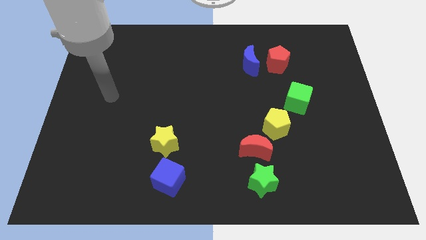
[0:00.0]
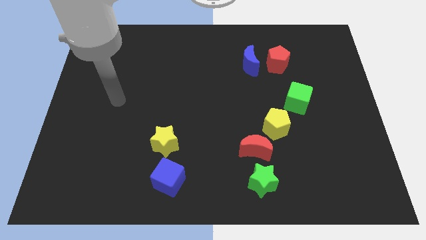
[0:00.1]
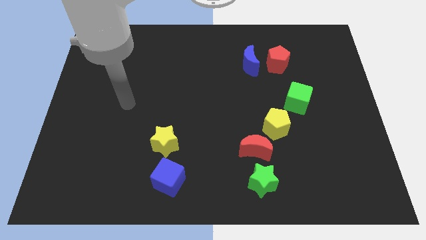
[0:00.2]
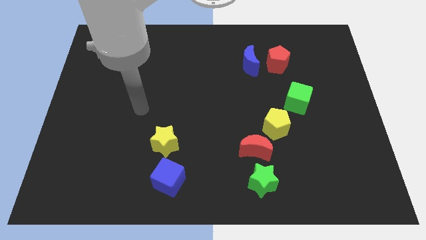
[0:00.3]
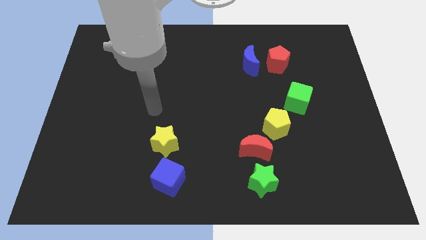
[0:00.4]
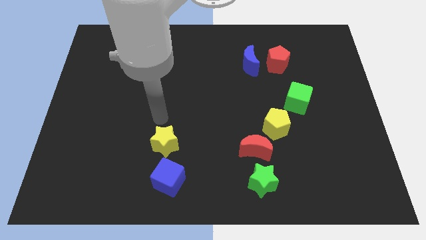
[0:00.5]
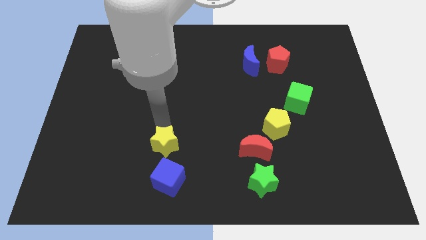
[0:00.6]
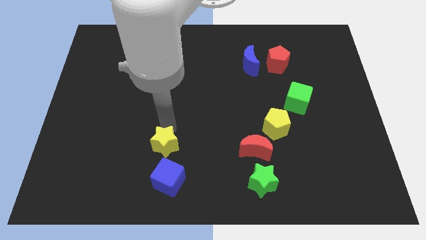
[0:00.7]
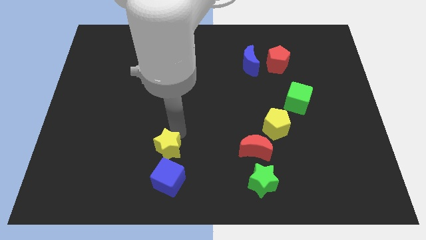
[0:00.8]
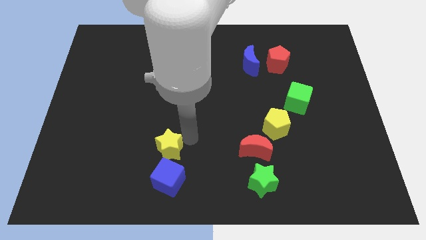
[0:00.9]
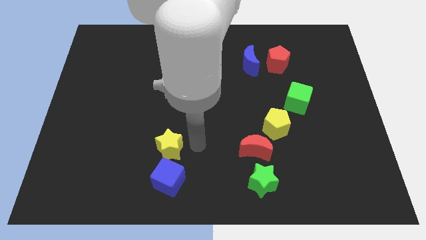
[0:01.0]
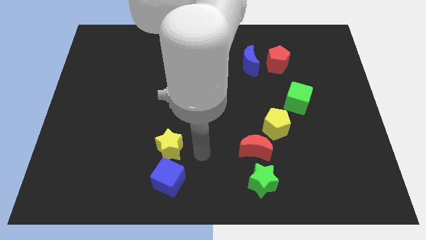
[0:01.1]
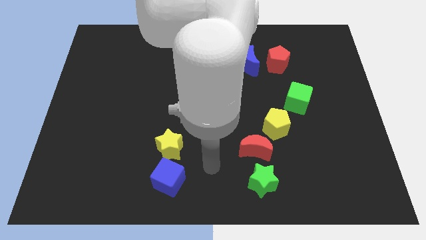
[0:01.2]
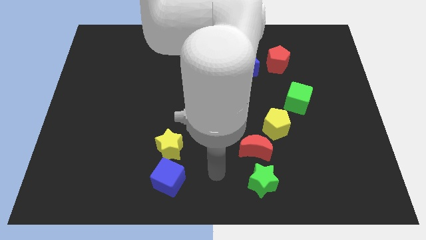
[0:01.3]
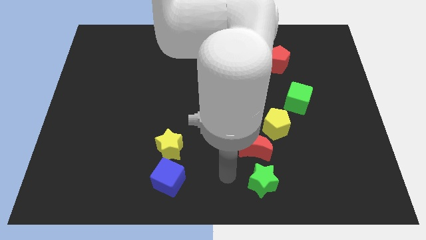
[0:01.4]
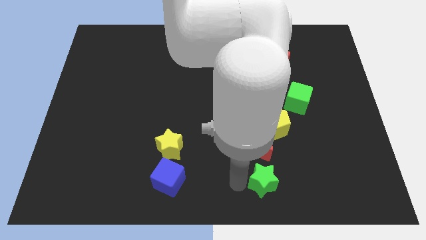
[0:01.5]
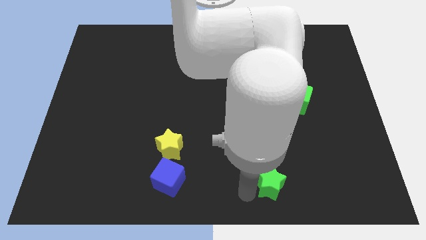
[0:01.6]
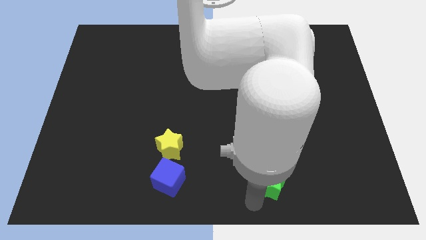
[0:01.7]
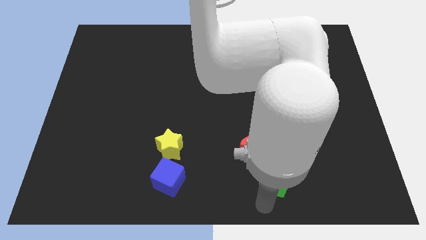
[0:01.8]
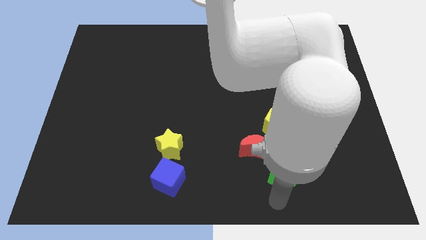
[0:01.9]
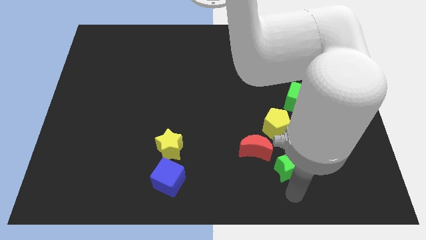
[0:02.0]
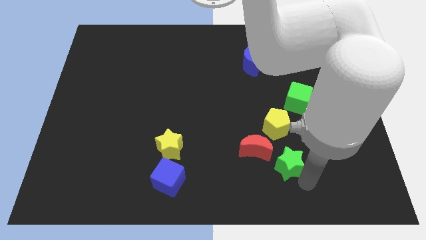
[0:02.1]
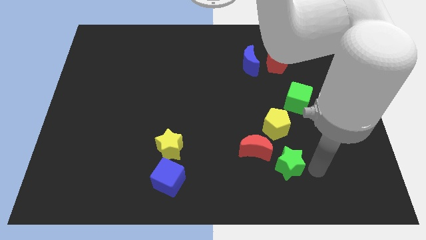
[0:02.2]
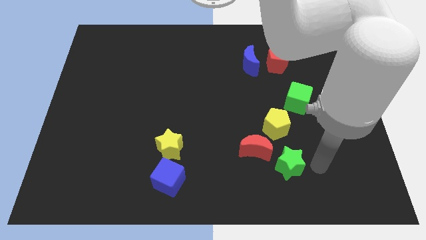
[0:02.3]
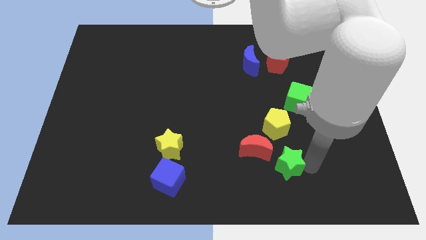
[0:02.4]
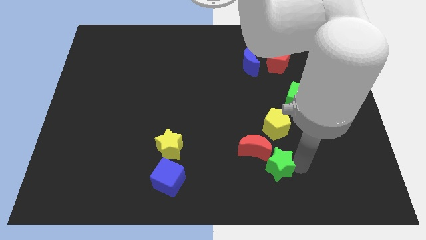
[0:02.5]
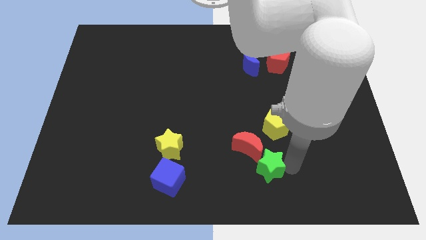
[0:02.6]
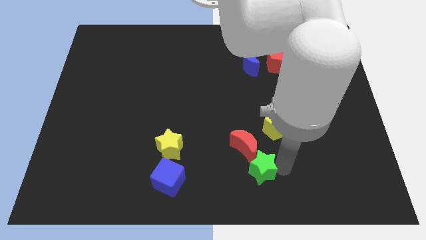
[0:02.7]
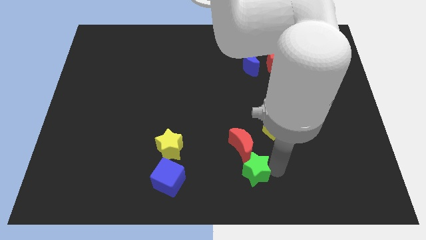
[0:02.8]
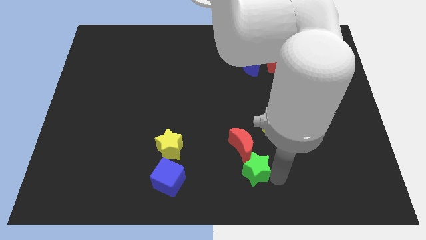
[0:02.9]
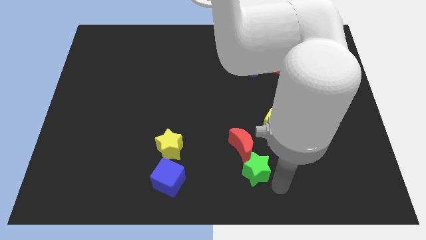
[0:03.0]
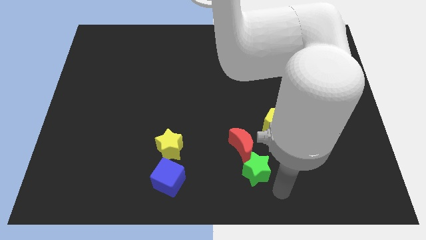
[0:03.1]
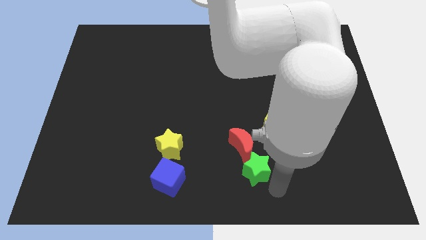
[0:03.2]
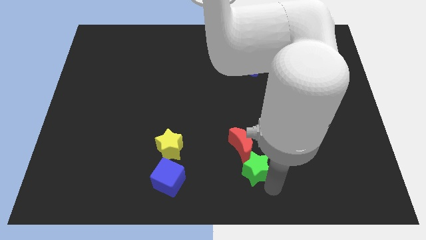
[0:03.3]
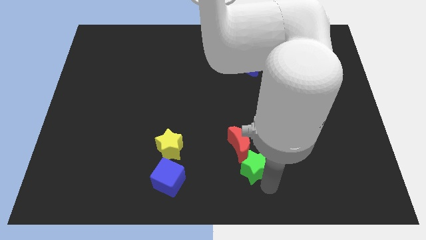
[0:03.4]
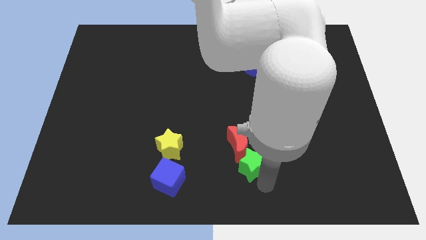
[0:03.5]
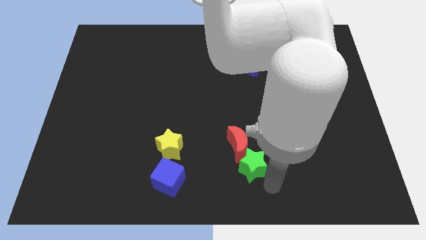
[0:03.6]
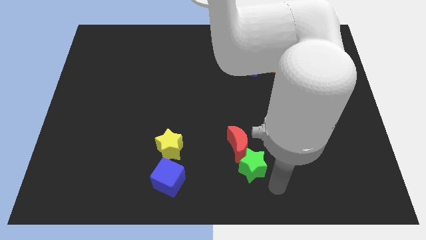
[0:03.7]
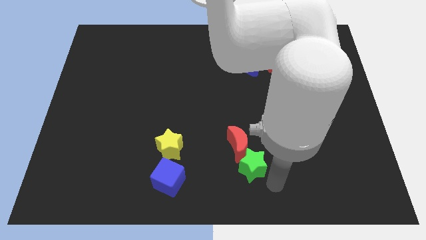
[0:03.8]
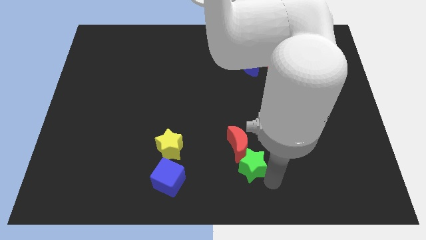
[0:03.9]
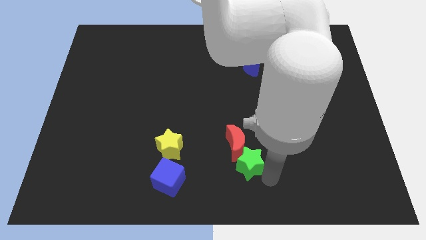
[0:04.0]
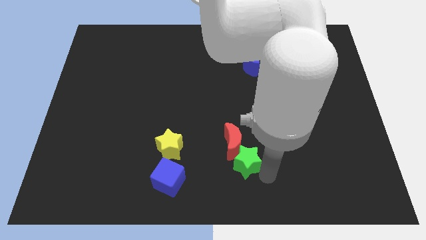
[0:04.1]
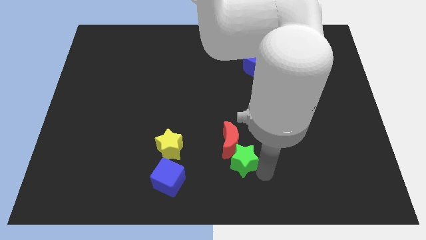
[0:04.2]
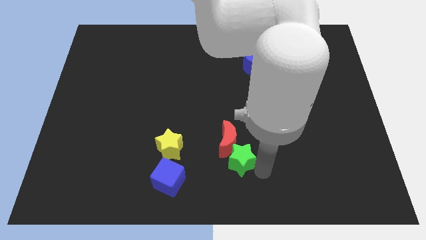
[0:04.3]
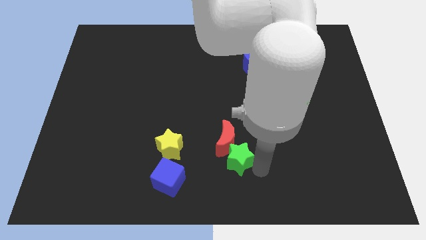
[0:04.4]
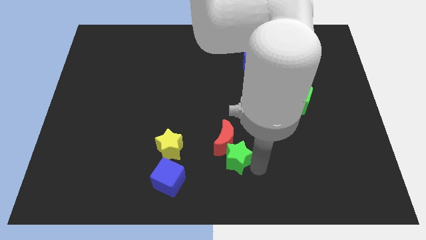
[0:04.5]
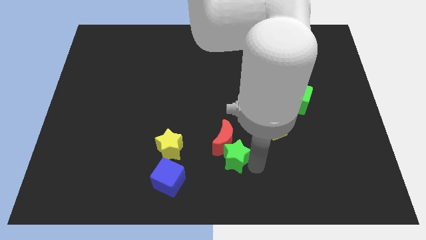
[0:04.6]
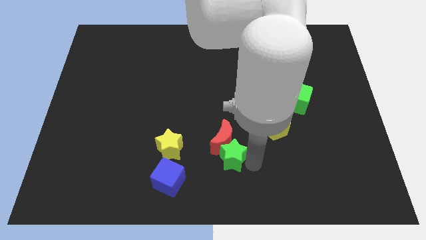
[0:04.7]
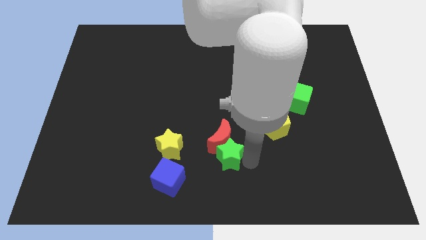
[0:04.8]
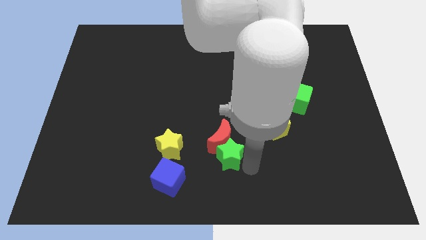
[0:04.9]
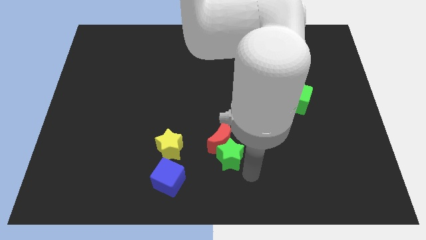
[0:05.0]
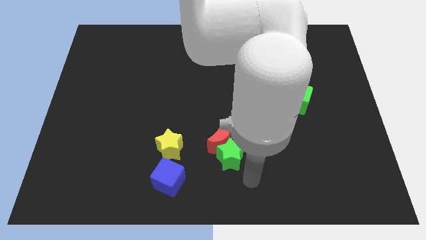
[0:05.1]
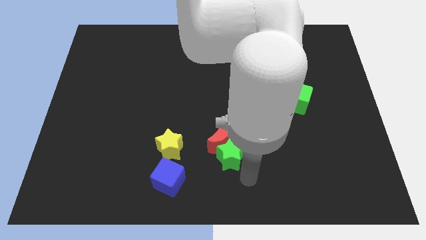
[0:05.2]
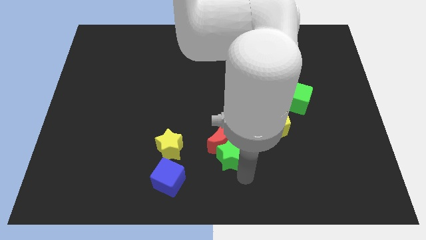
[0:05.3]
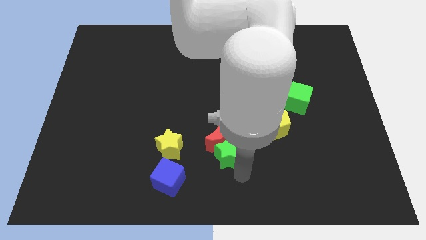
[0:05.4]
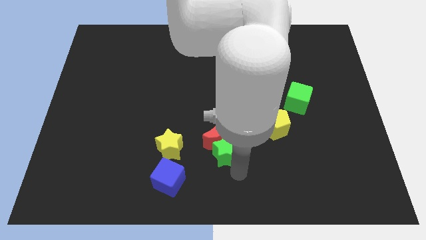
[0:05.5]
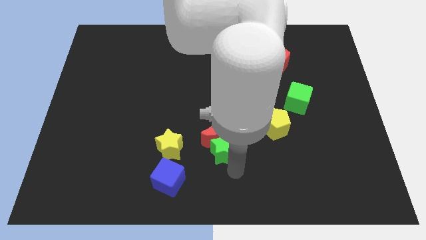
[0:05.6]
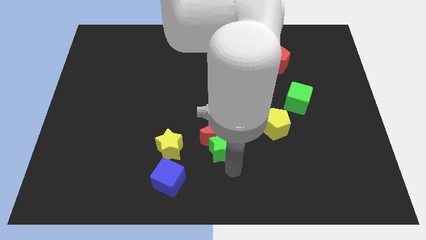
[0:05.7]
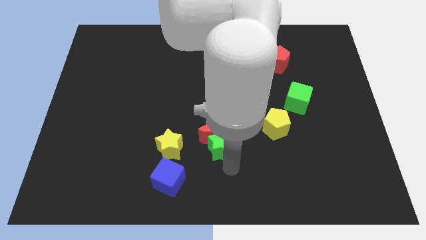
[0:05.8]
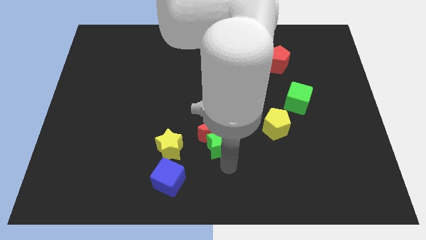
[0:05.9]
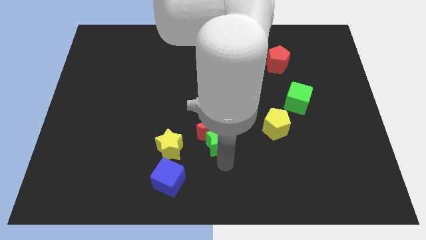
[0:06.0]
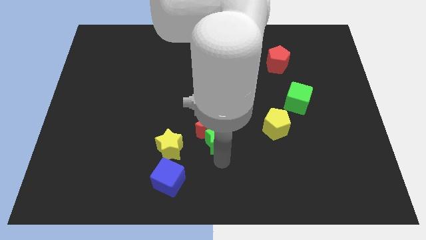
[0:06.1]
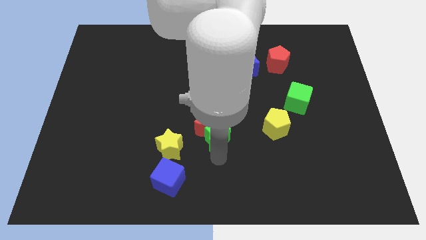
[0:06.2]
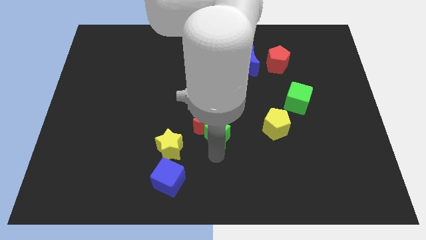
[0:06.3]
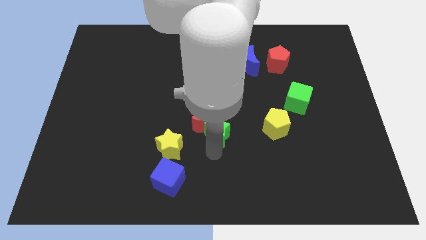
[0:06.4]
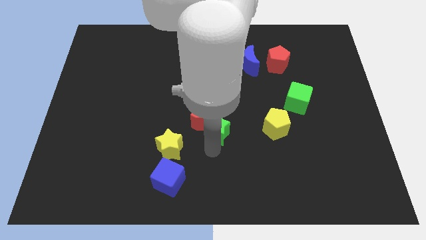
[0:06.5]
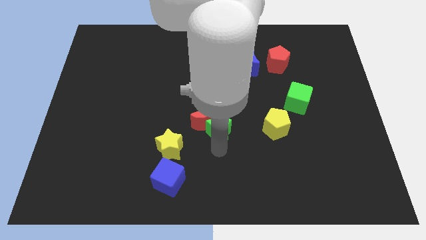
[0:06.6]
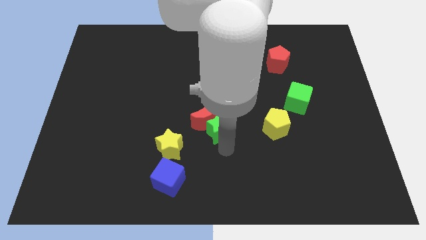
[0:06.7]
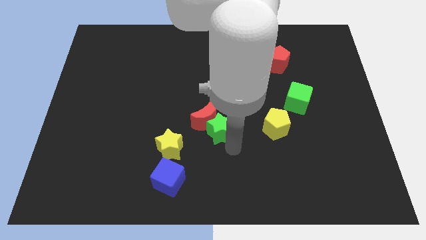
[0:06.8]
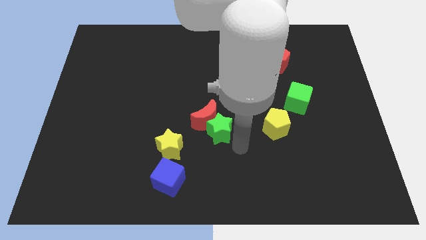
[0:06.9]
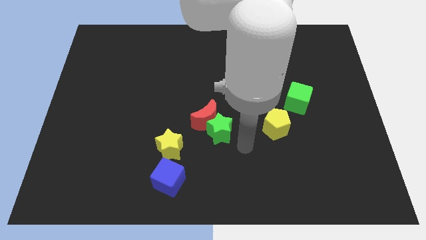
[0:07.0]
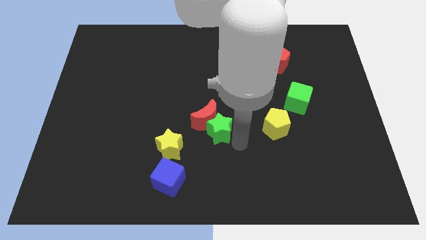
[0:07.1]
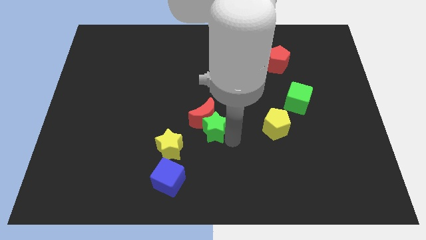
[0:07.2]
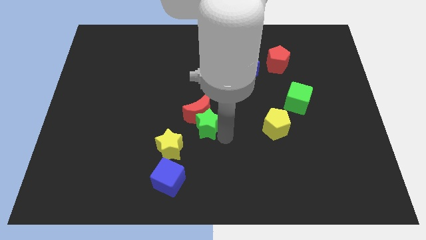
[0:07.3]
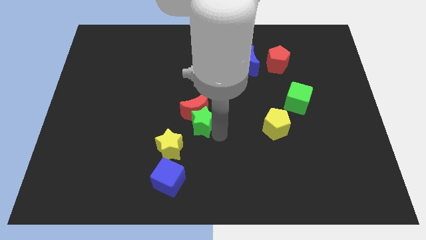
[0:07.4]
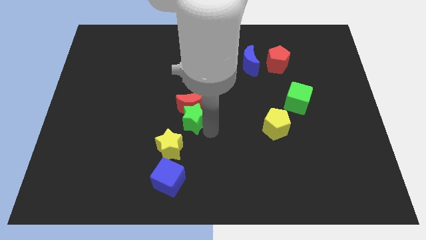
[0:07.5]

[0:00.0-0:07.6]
slide the green star up and then left

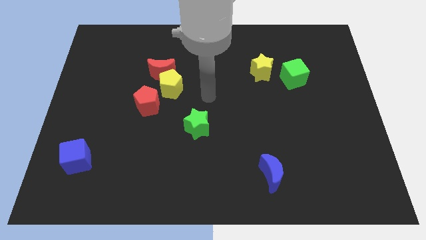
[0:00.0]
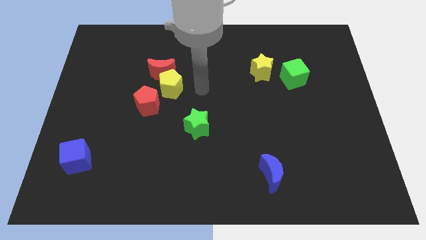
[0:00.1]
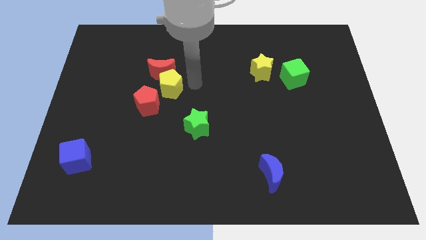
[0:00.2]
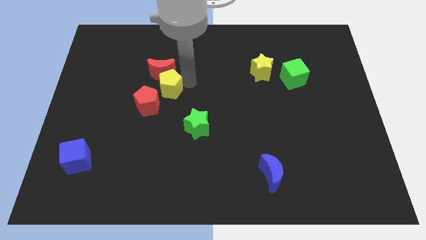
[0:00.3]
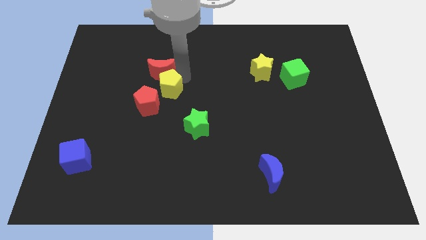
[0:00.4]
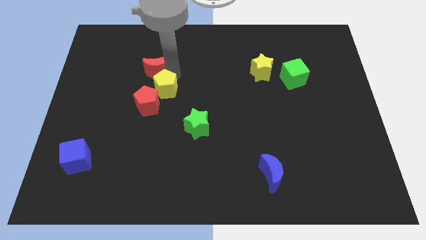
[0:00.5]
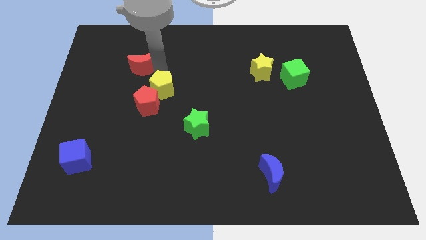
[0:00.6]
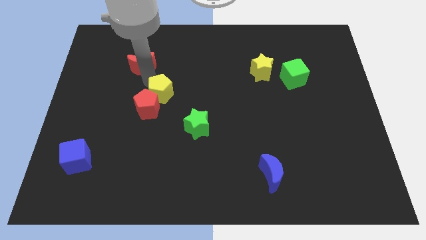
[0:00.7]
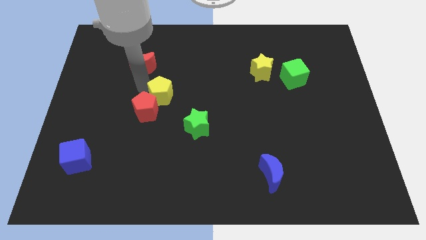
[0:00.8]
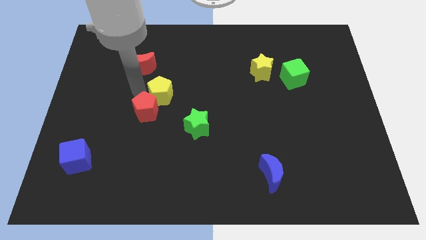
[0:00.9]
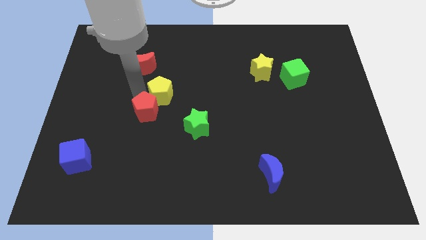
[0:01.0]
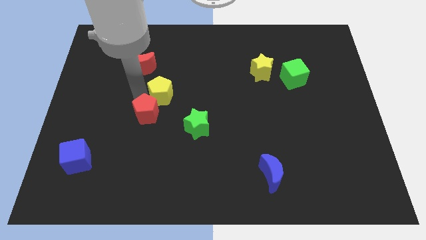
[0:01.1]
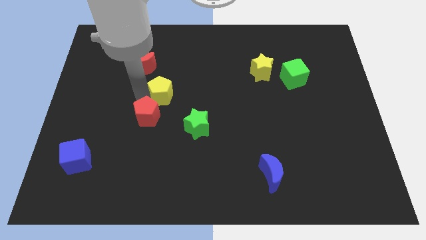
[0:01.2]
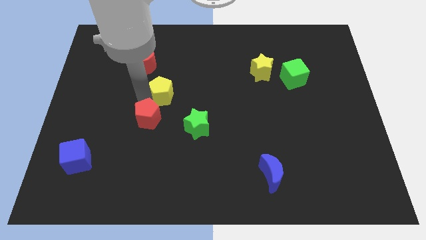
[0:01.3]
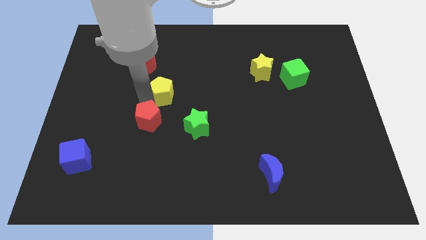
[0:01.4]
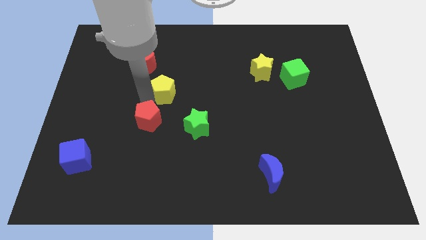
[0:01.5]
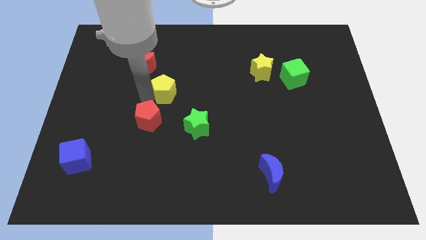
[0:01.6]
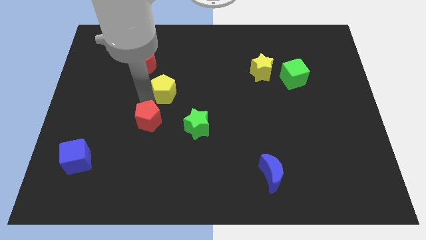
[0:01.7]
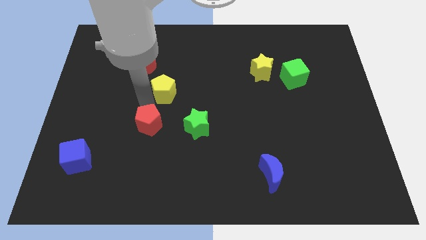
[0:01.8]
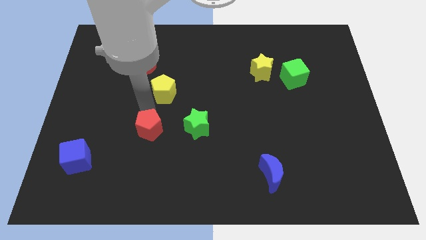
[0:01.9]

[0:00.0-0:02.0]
push the red pentagon a bit down
